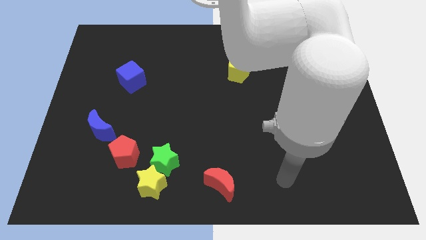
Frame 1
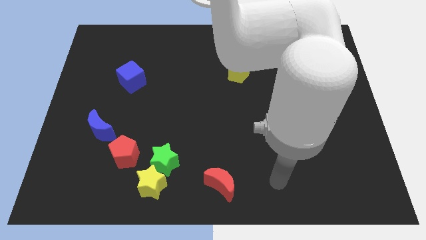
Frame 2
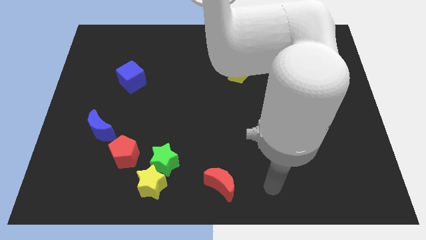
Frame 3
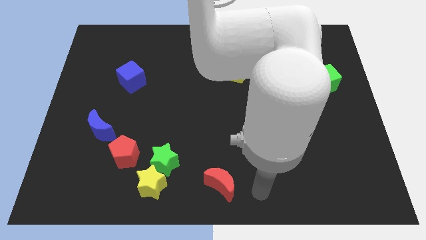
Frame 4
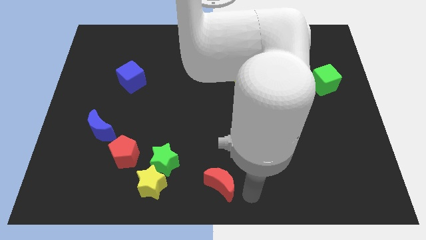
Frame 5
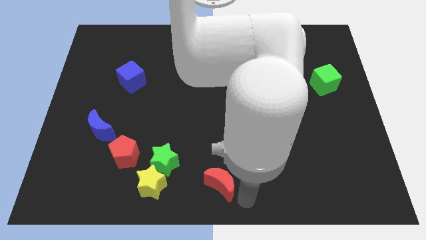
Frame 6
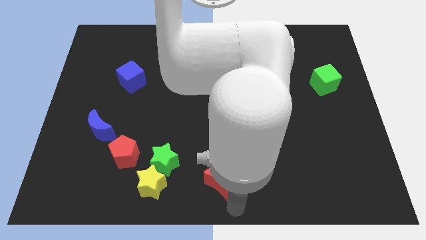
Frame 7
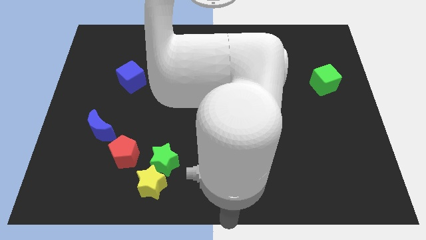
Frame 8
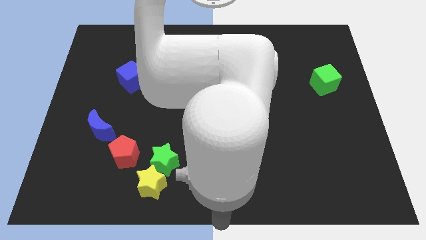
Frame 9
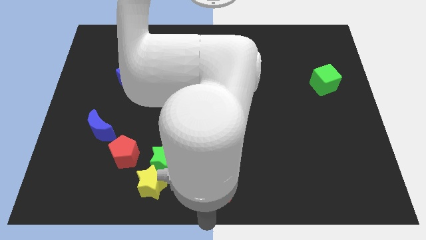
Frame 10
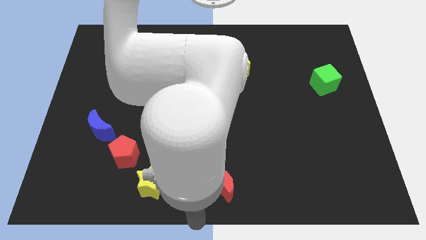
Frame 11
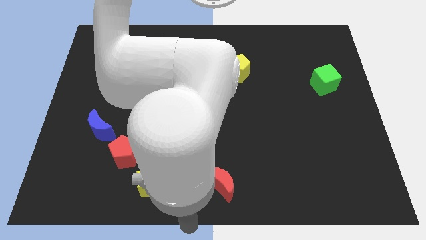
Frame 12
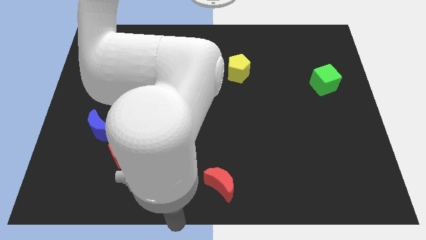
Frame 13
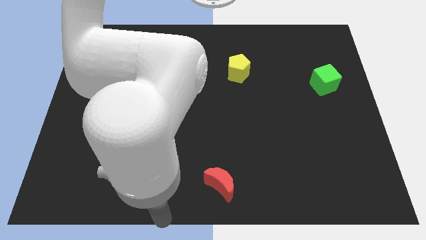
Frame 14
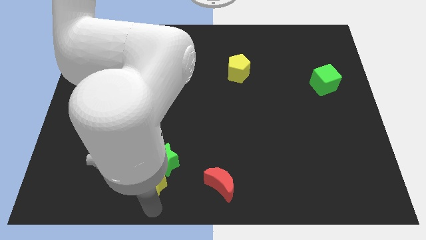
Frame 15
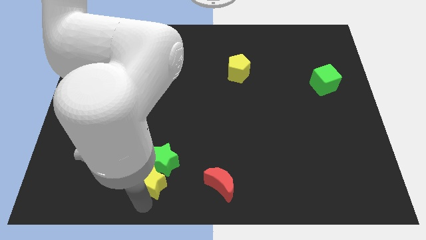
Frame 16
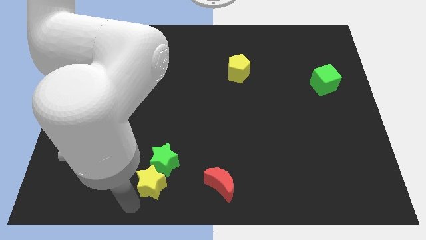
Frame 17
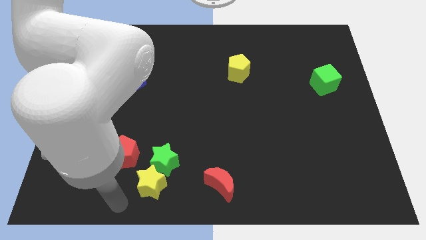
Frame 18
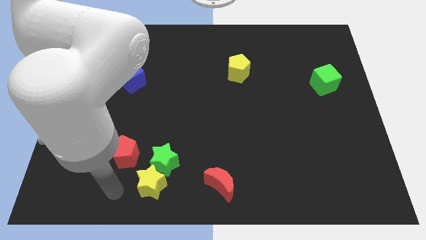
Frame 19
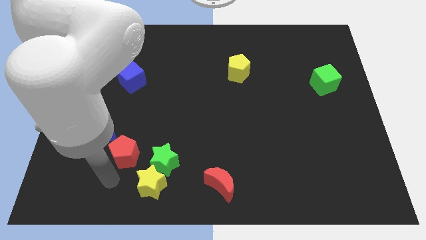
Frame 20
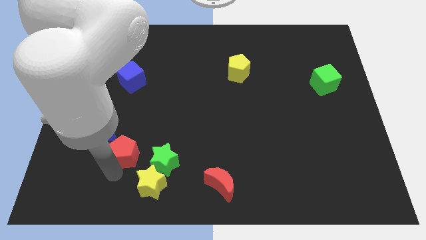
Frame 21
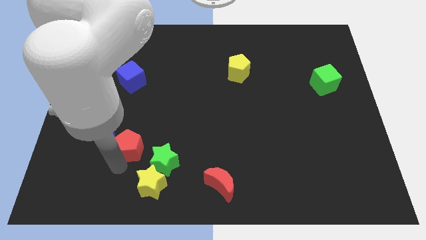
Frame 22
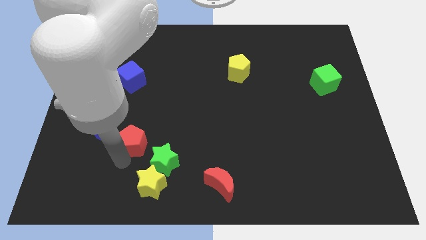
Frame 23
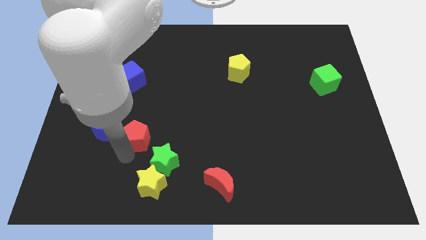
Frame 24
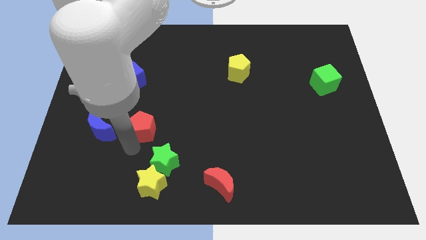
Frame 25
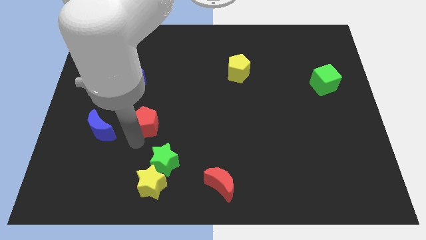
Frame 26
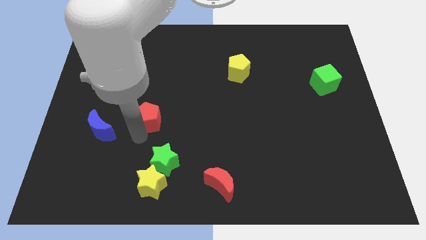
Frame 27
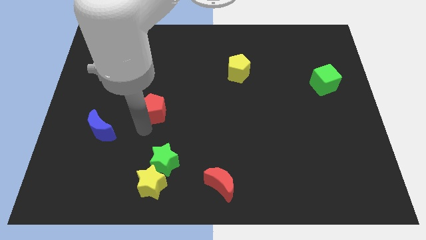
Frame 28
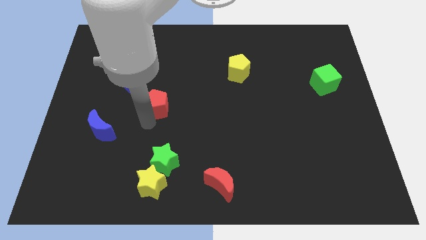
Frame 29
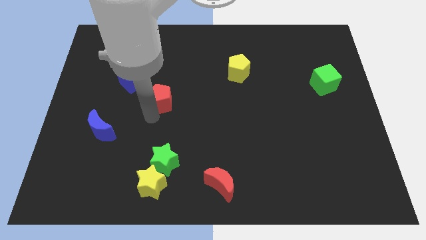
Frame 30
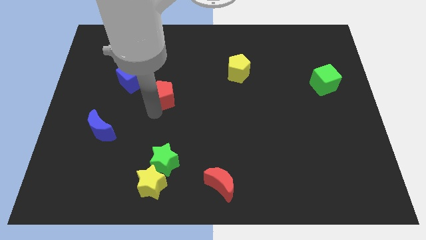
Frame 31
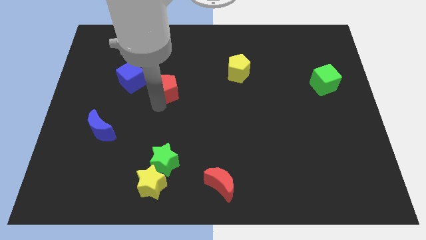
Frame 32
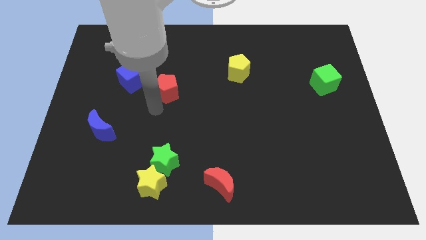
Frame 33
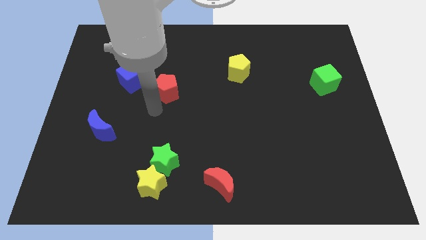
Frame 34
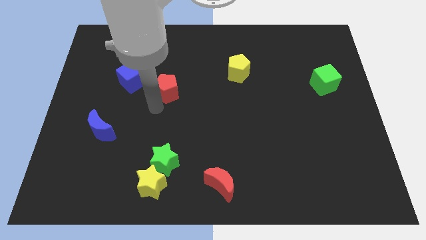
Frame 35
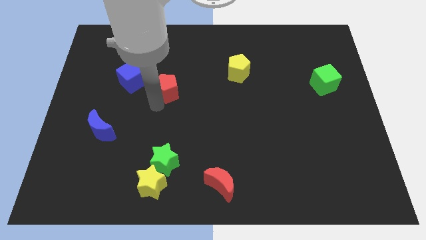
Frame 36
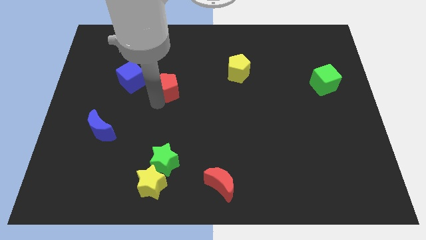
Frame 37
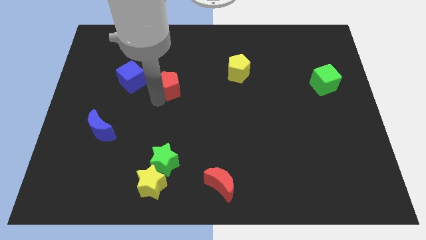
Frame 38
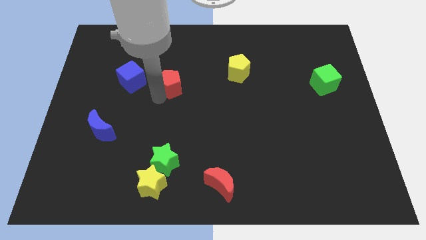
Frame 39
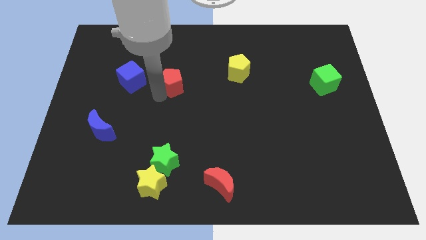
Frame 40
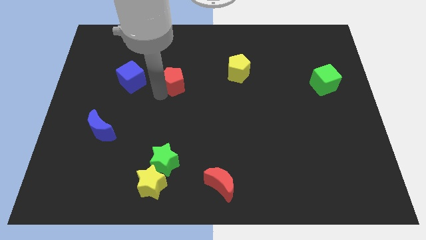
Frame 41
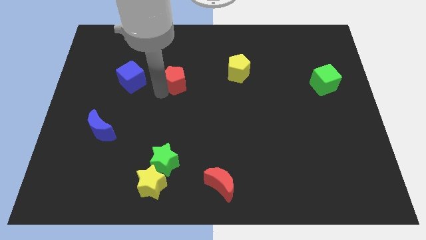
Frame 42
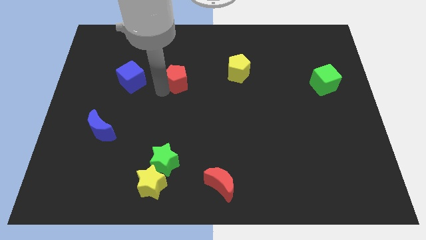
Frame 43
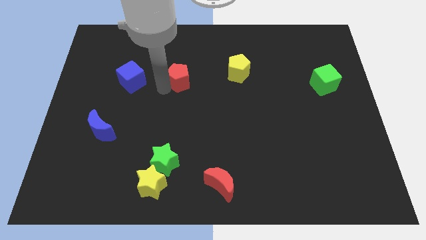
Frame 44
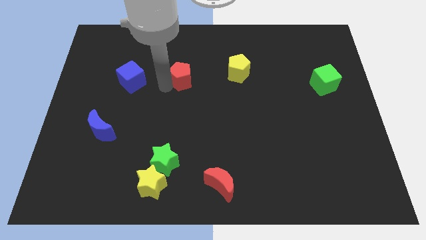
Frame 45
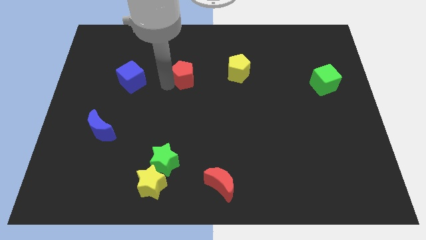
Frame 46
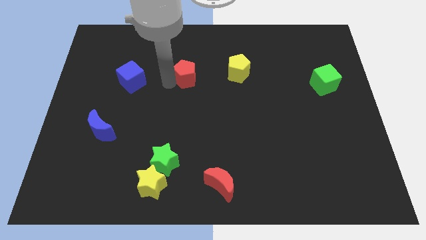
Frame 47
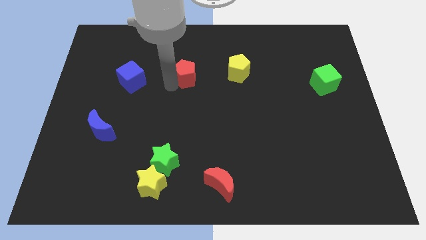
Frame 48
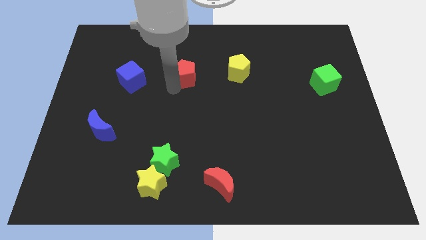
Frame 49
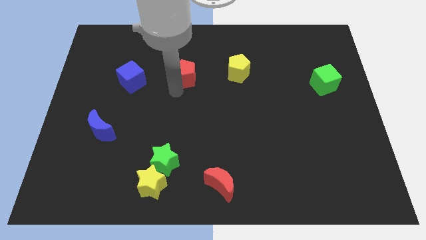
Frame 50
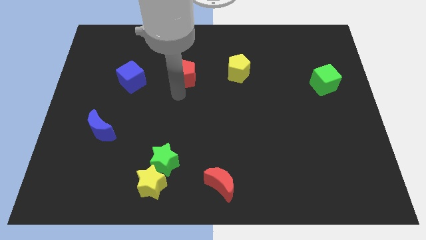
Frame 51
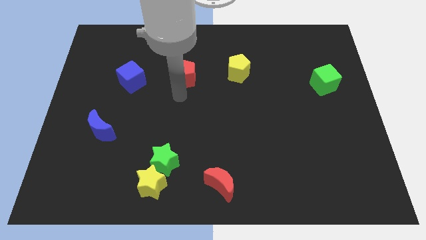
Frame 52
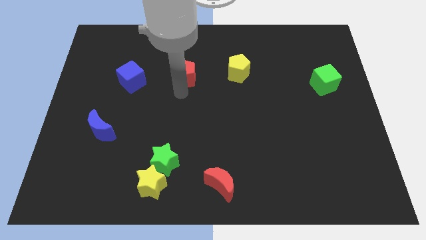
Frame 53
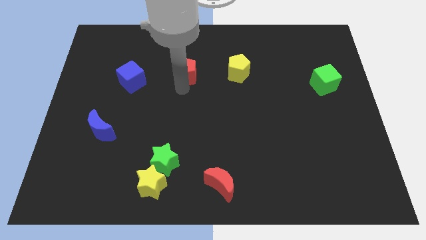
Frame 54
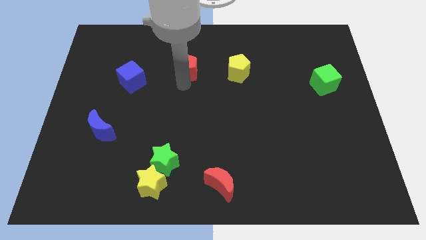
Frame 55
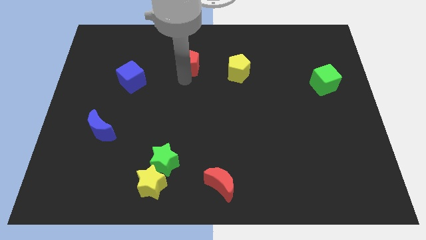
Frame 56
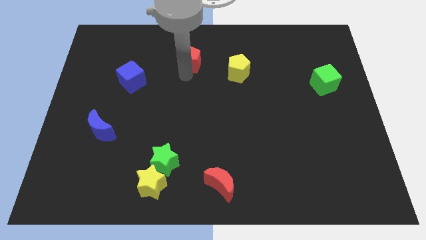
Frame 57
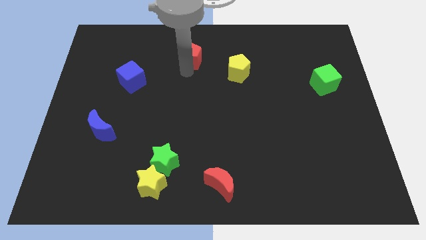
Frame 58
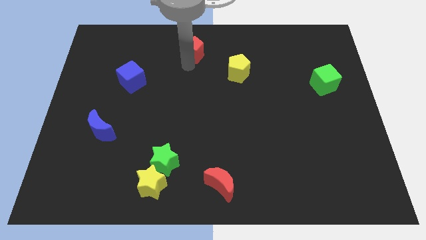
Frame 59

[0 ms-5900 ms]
move the red pentagon to the top

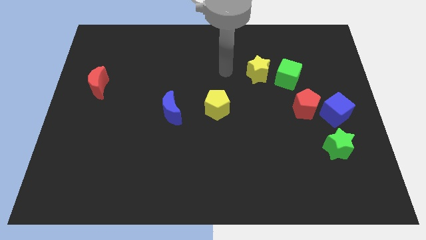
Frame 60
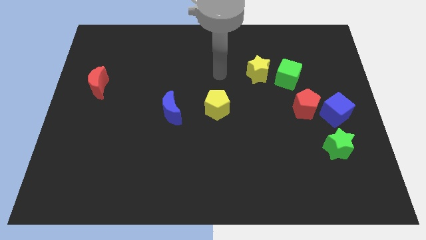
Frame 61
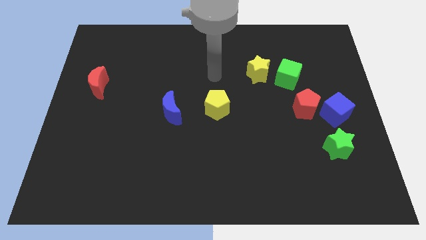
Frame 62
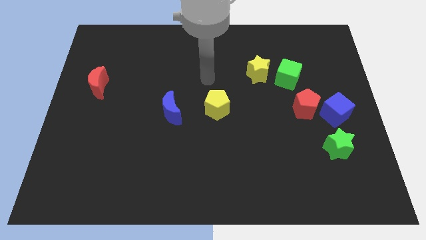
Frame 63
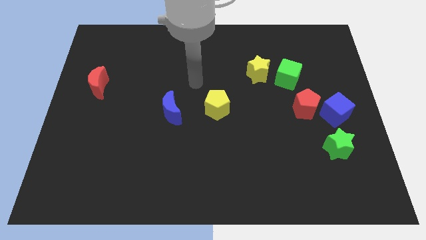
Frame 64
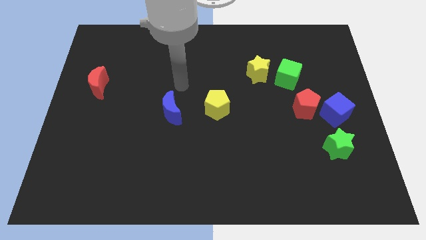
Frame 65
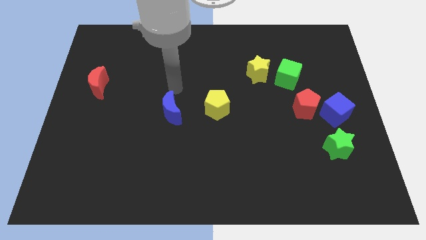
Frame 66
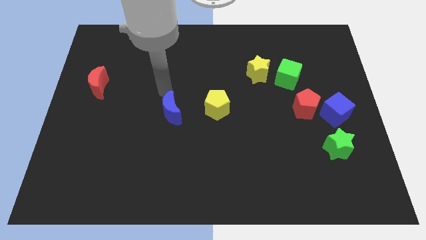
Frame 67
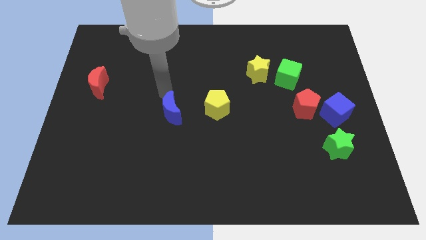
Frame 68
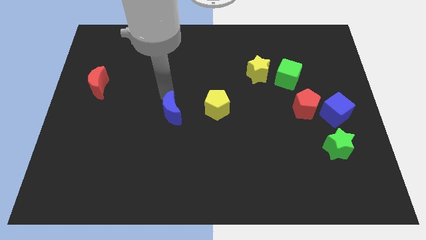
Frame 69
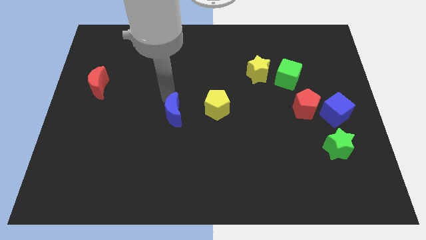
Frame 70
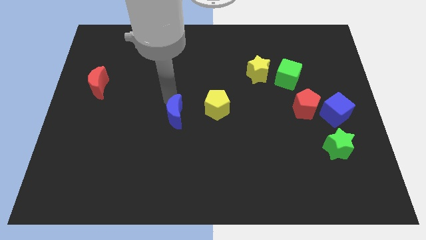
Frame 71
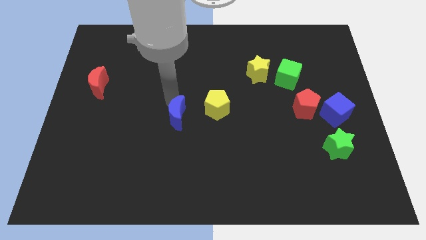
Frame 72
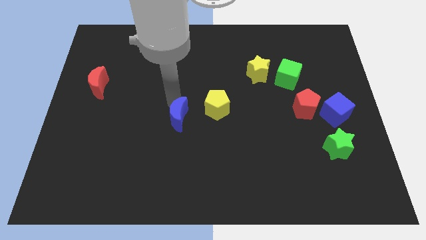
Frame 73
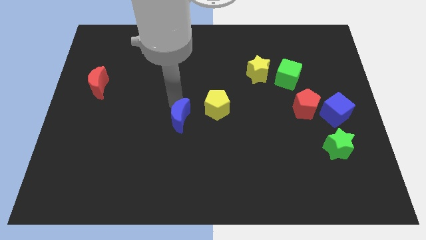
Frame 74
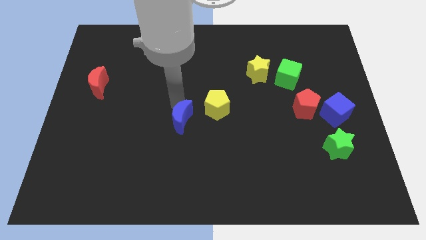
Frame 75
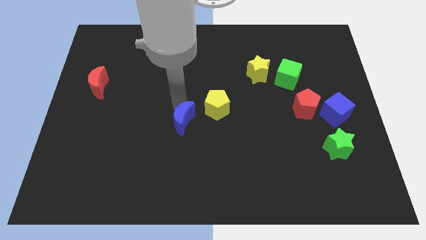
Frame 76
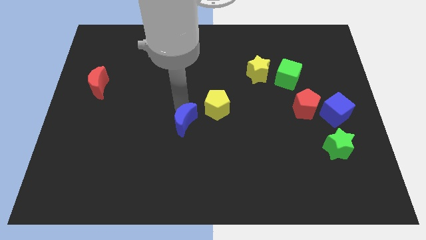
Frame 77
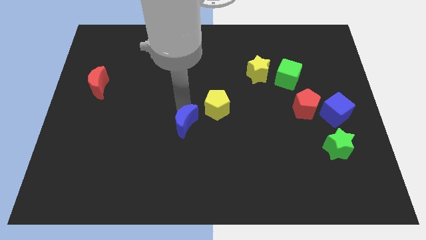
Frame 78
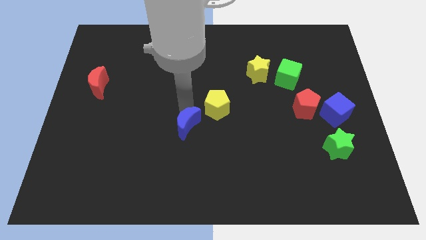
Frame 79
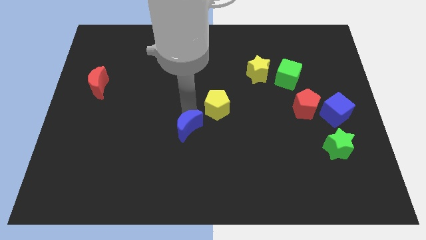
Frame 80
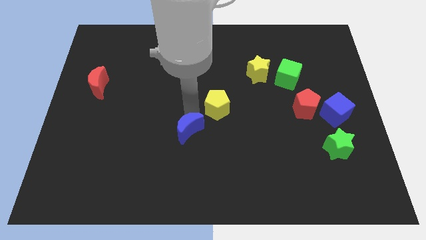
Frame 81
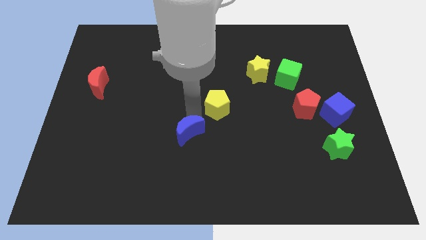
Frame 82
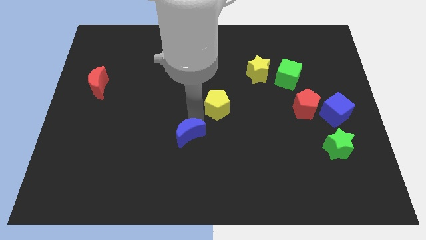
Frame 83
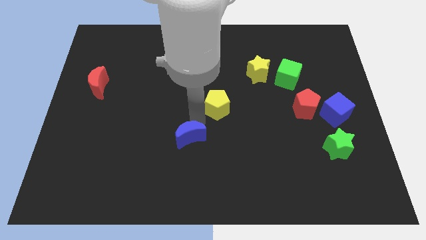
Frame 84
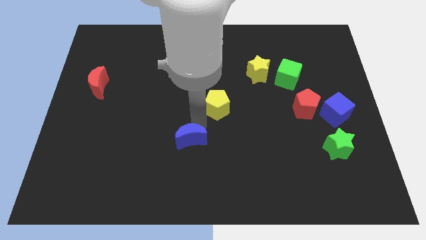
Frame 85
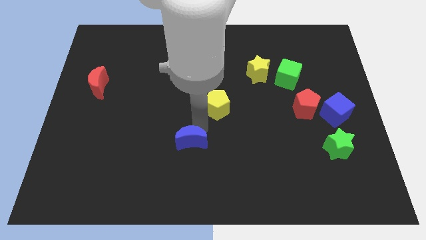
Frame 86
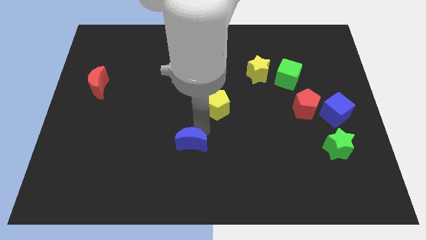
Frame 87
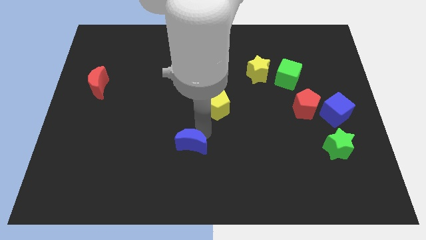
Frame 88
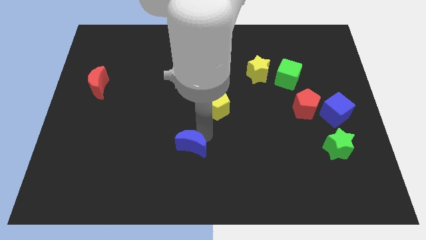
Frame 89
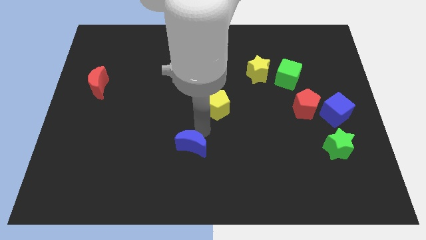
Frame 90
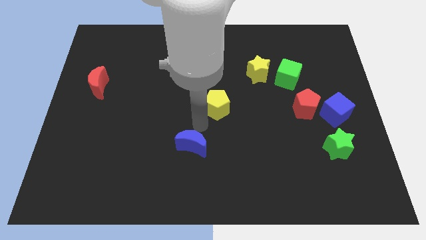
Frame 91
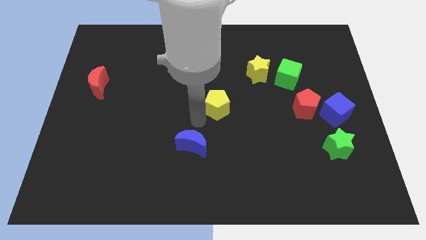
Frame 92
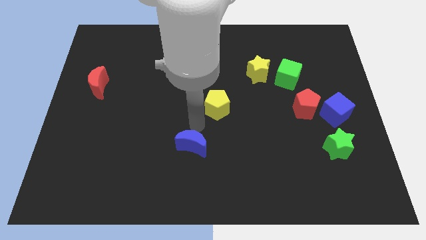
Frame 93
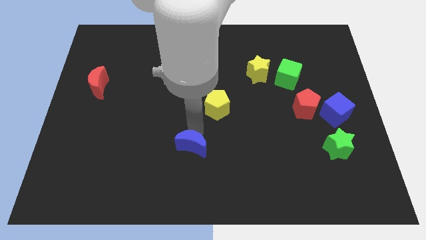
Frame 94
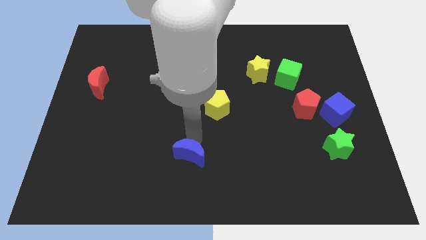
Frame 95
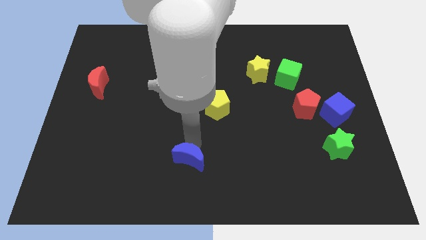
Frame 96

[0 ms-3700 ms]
slide the blue moon to the bottom
